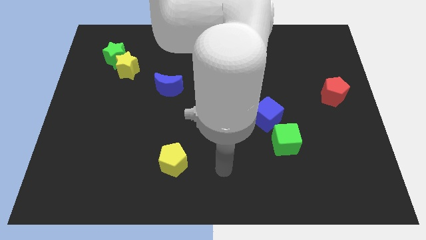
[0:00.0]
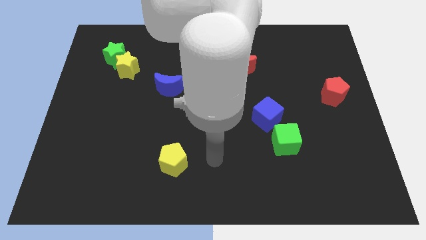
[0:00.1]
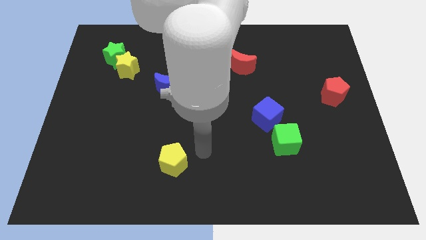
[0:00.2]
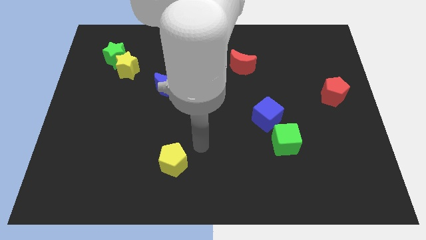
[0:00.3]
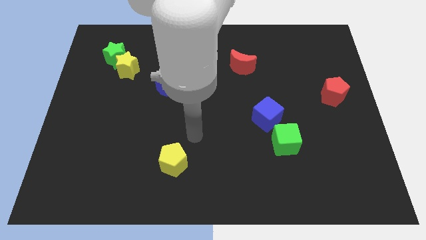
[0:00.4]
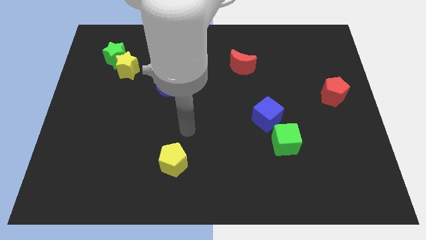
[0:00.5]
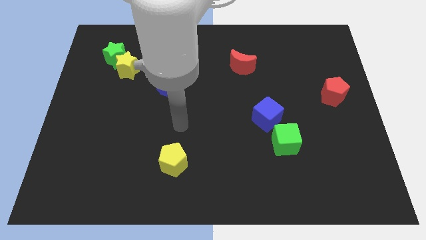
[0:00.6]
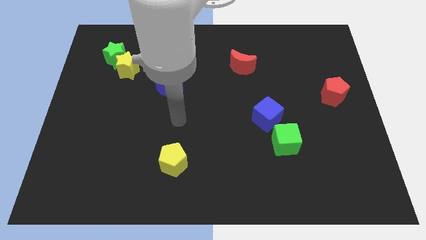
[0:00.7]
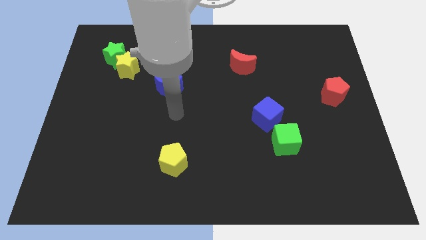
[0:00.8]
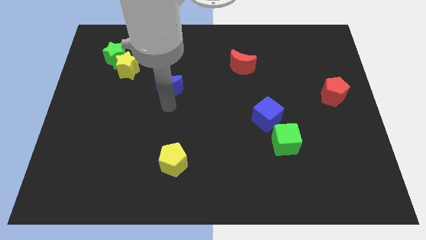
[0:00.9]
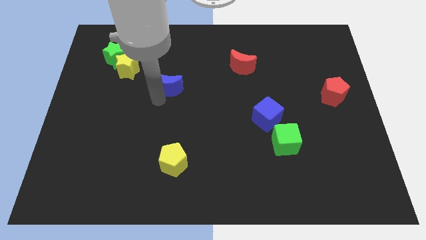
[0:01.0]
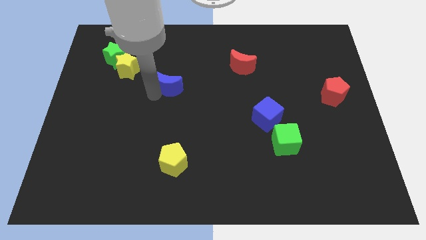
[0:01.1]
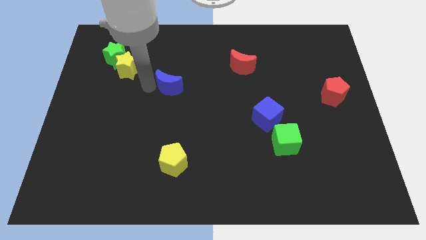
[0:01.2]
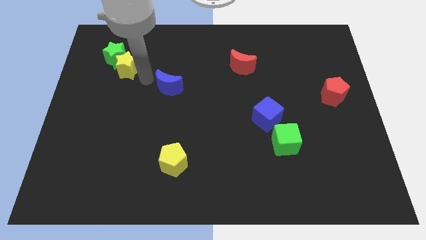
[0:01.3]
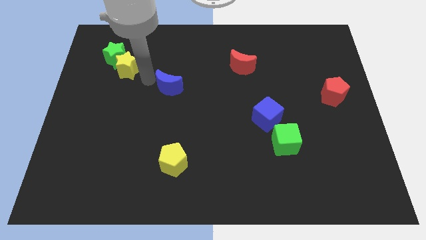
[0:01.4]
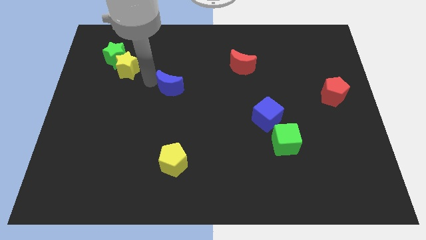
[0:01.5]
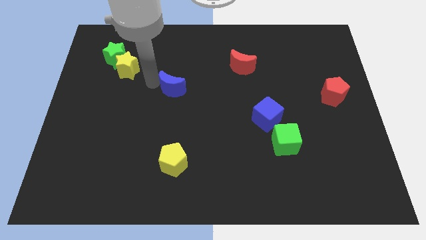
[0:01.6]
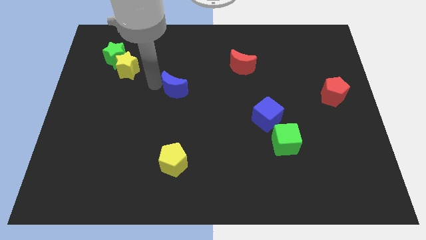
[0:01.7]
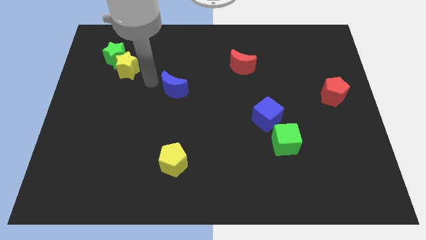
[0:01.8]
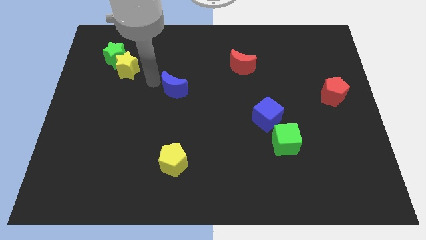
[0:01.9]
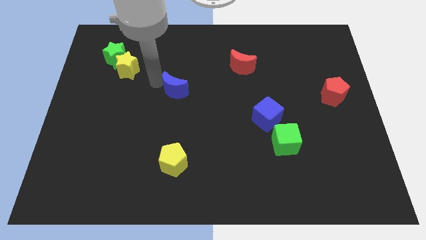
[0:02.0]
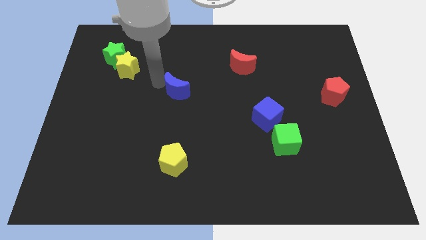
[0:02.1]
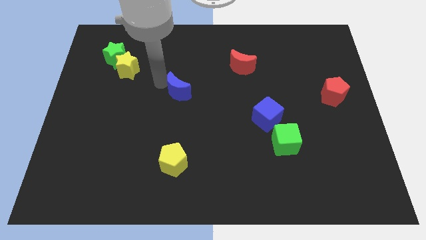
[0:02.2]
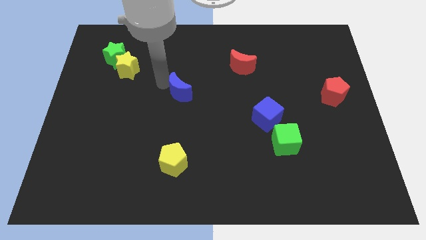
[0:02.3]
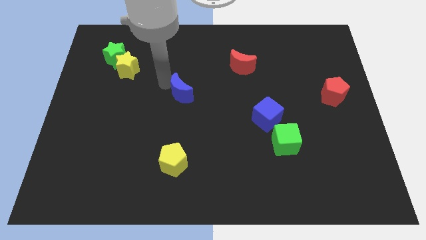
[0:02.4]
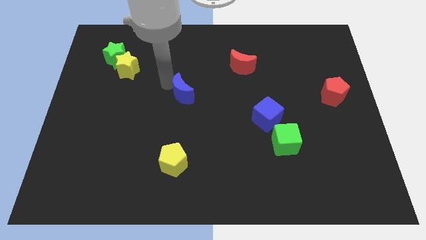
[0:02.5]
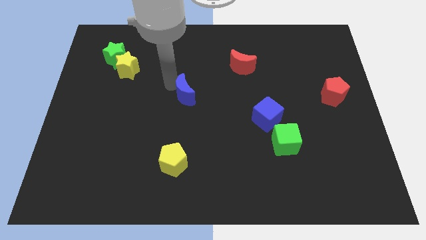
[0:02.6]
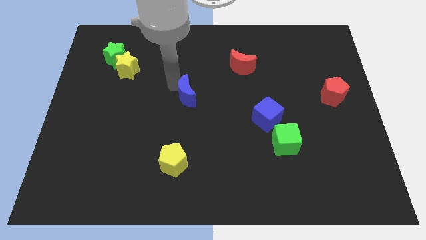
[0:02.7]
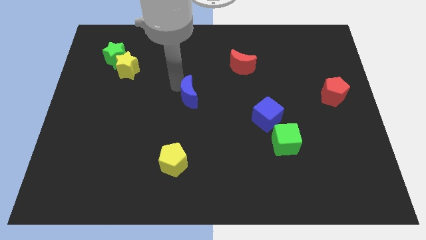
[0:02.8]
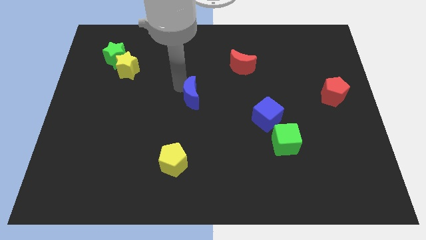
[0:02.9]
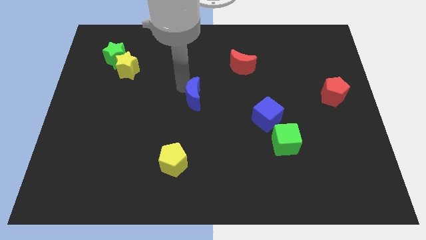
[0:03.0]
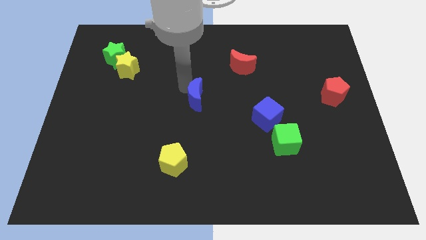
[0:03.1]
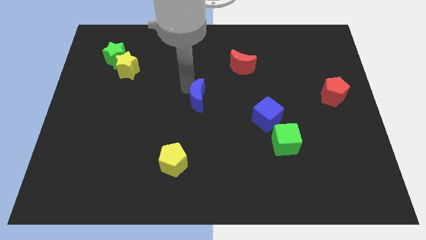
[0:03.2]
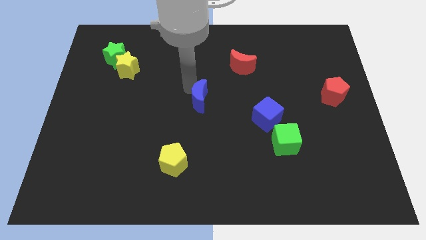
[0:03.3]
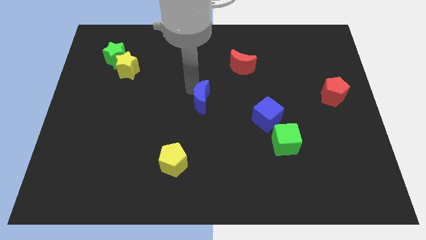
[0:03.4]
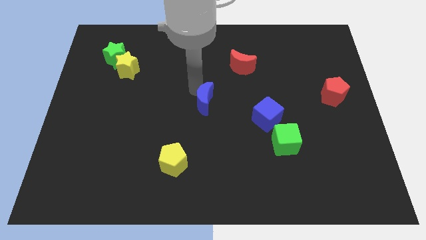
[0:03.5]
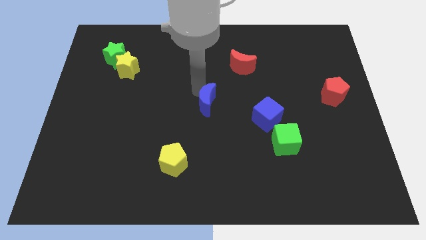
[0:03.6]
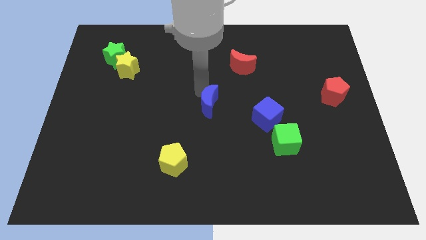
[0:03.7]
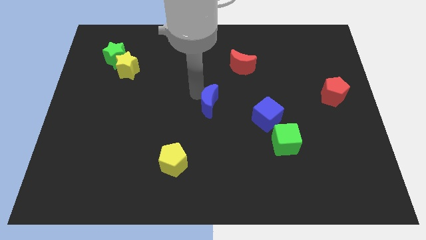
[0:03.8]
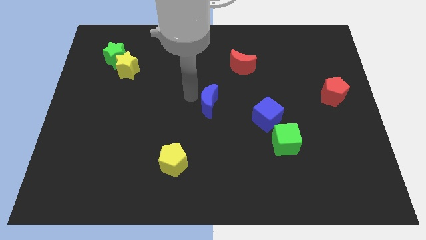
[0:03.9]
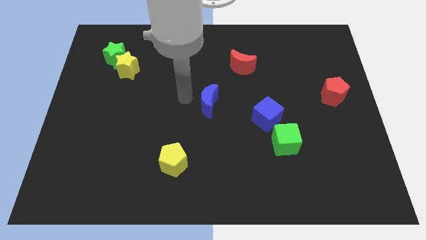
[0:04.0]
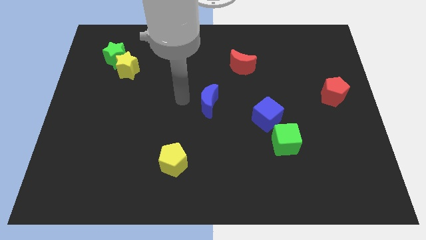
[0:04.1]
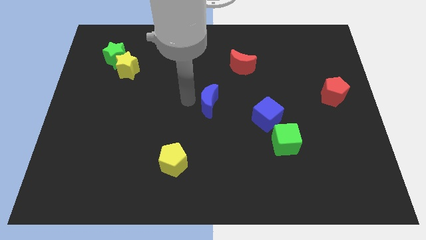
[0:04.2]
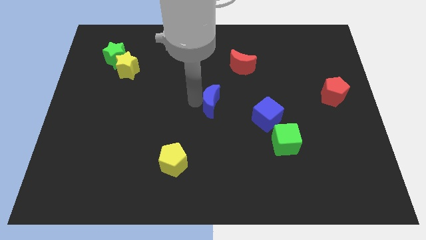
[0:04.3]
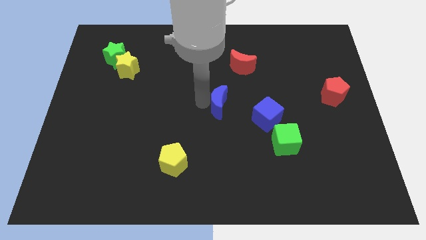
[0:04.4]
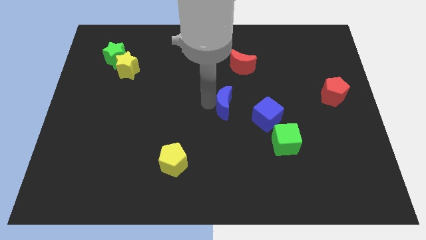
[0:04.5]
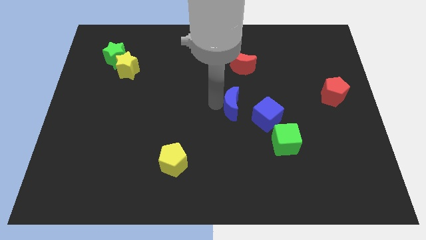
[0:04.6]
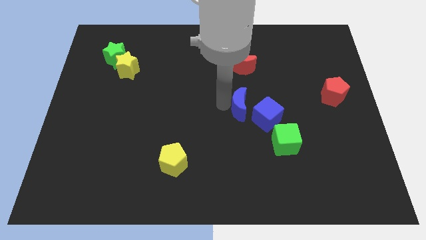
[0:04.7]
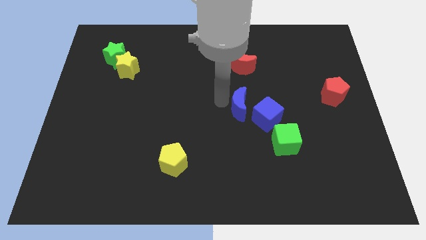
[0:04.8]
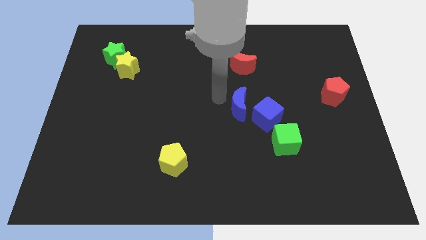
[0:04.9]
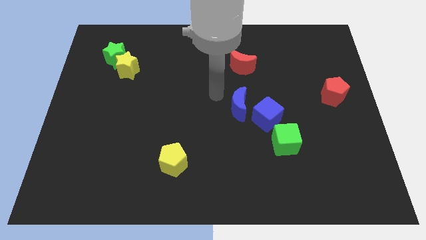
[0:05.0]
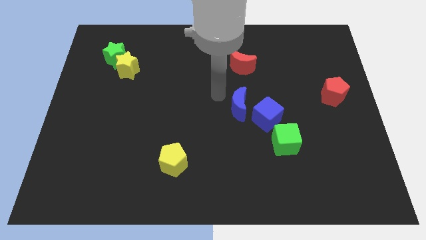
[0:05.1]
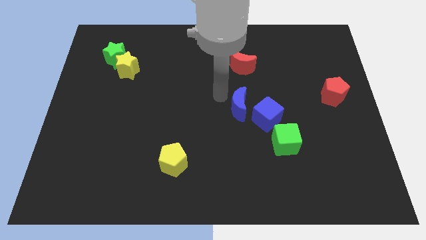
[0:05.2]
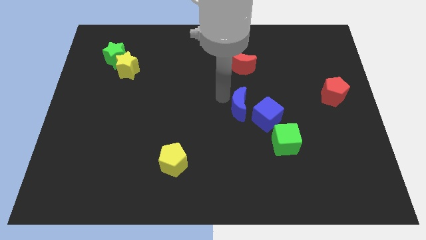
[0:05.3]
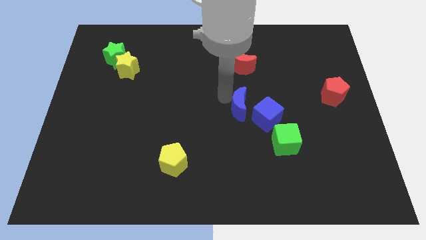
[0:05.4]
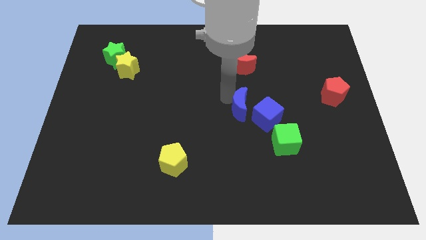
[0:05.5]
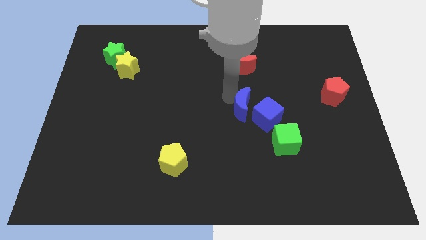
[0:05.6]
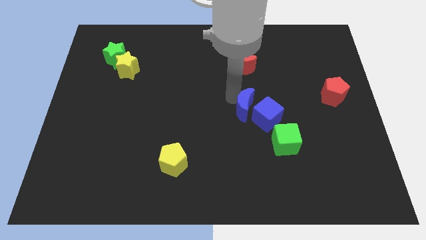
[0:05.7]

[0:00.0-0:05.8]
move the blue moon to the blue cube

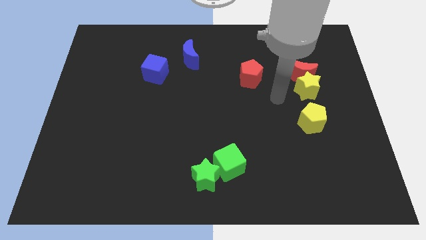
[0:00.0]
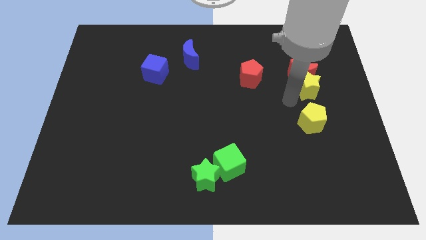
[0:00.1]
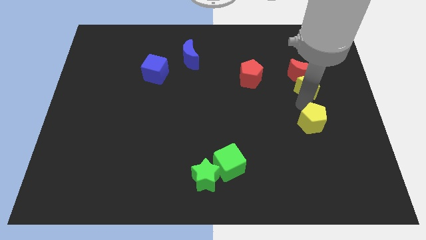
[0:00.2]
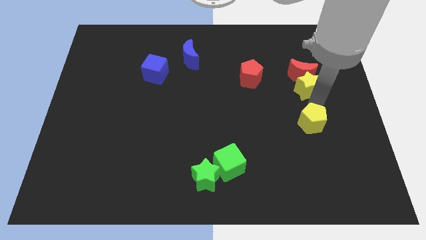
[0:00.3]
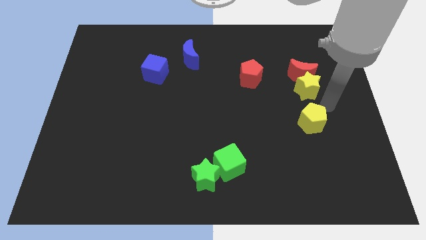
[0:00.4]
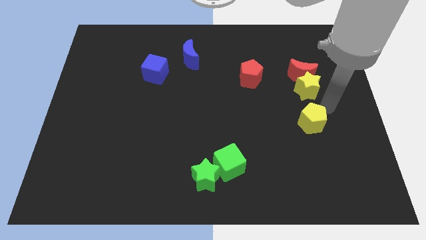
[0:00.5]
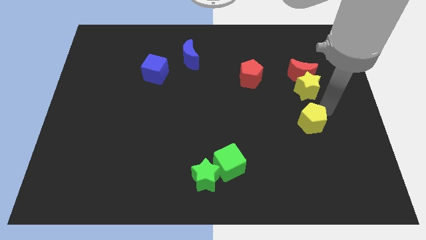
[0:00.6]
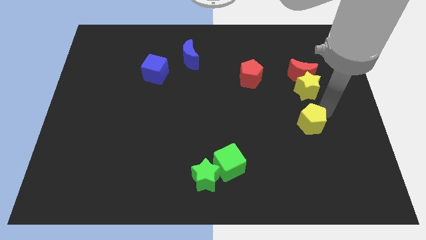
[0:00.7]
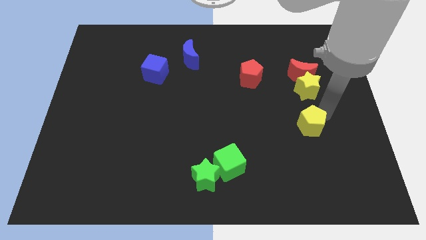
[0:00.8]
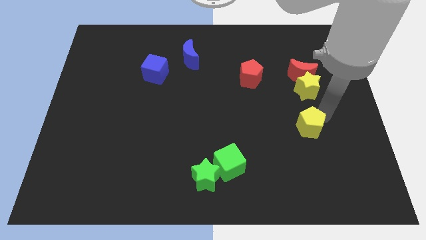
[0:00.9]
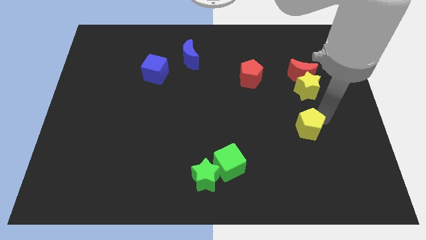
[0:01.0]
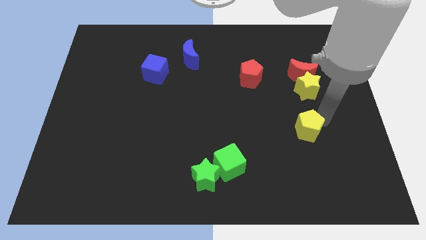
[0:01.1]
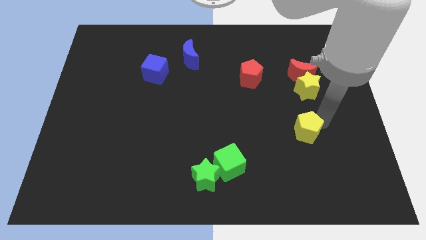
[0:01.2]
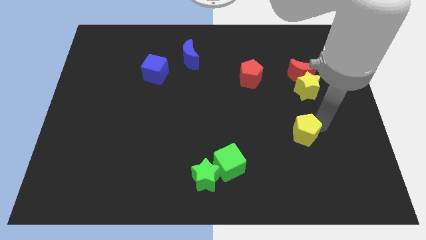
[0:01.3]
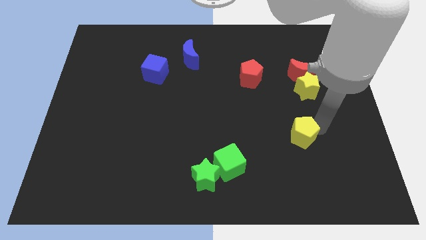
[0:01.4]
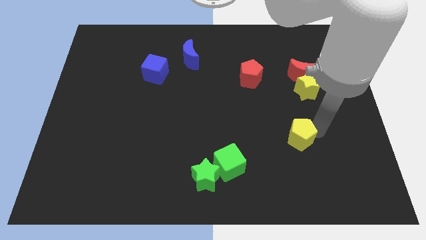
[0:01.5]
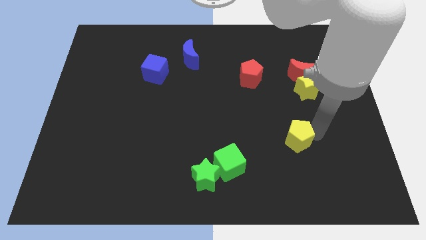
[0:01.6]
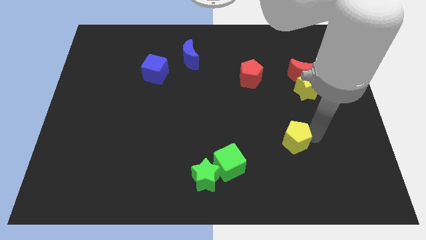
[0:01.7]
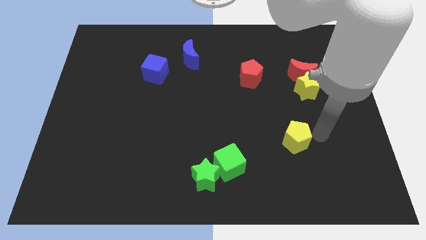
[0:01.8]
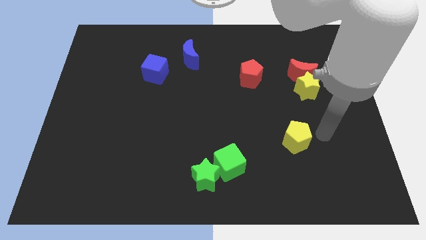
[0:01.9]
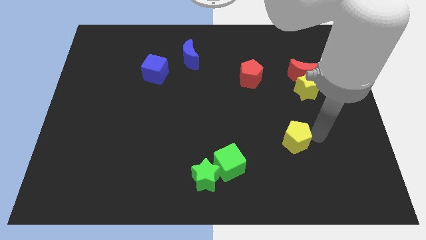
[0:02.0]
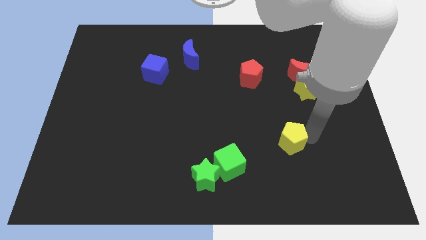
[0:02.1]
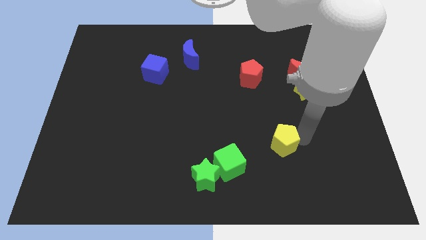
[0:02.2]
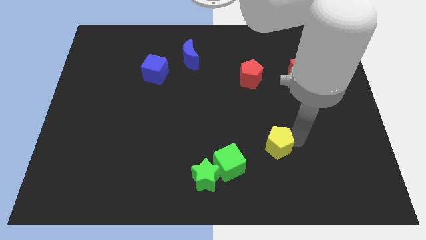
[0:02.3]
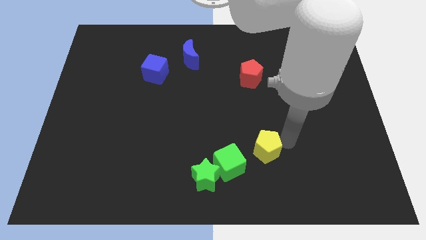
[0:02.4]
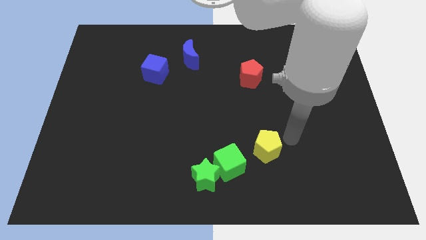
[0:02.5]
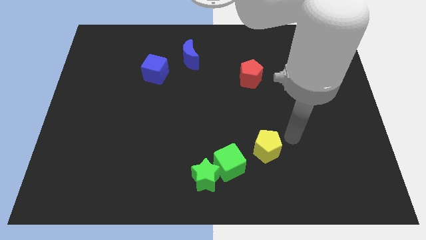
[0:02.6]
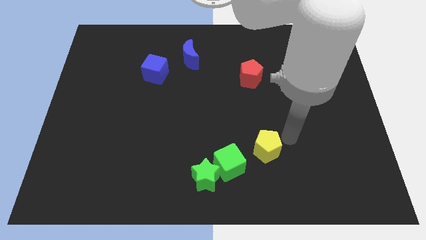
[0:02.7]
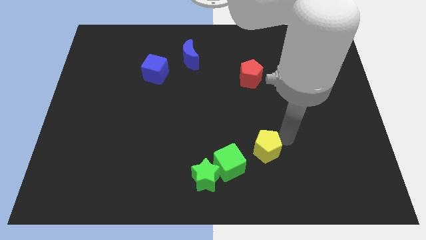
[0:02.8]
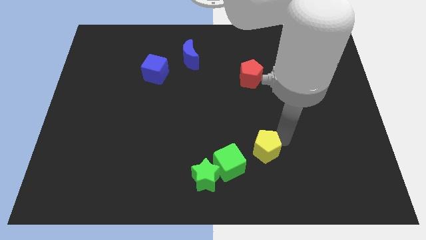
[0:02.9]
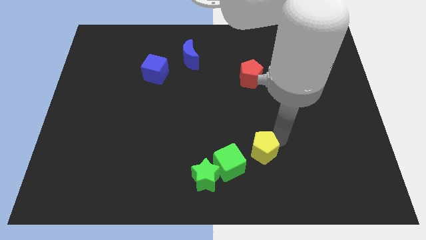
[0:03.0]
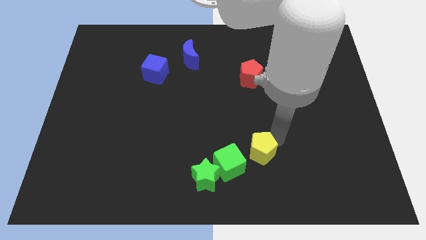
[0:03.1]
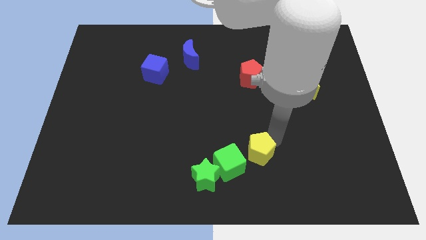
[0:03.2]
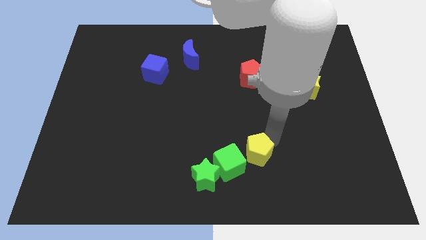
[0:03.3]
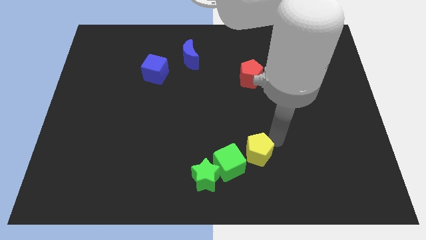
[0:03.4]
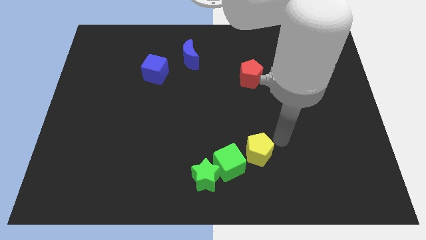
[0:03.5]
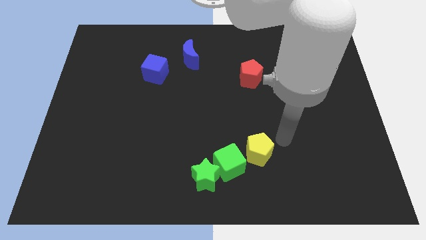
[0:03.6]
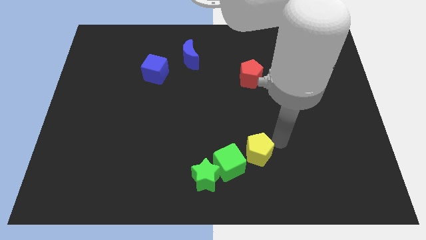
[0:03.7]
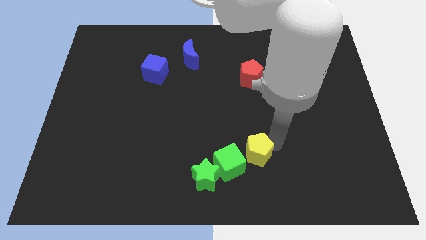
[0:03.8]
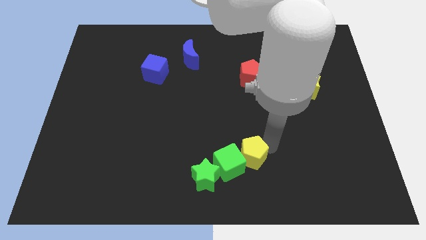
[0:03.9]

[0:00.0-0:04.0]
push the yellow pentagon to the green cube
